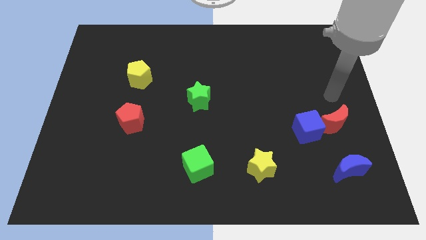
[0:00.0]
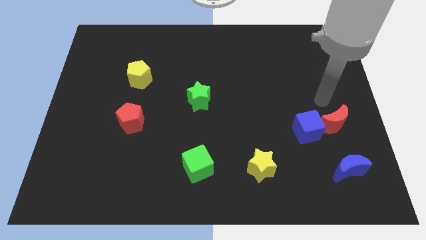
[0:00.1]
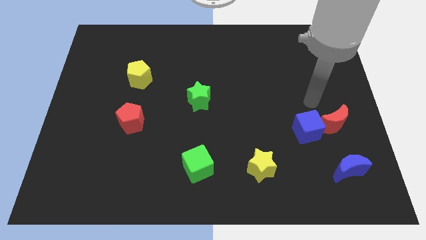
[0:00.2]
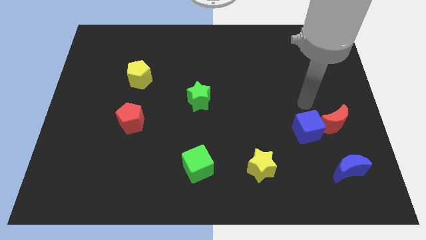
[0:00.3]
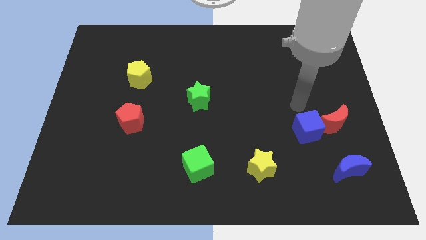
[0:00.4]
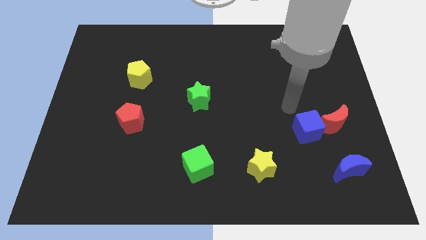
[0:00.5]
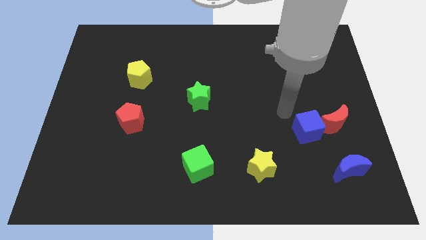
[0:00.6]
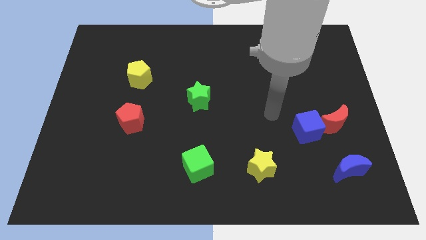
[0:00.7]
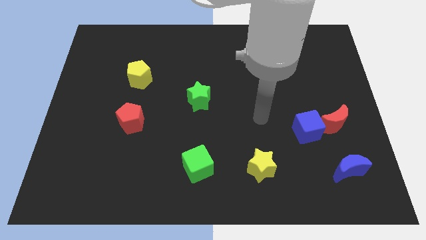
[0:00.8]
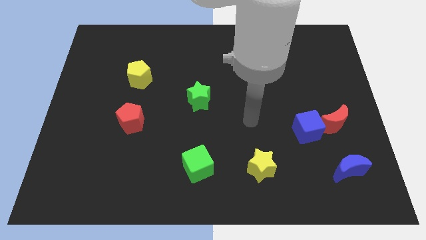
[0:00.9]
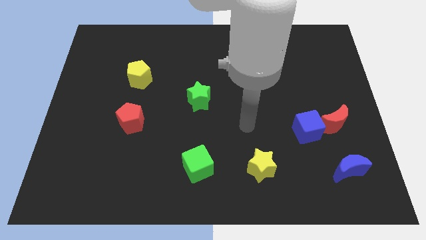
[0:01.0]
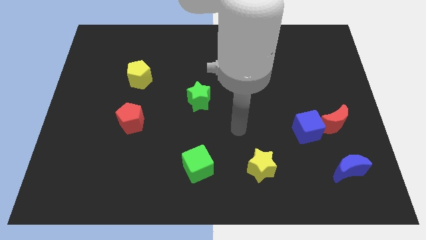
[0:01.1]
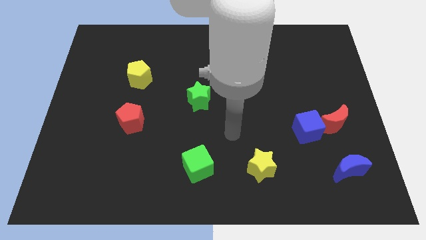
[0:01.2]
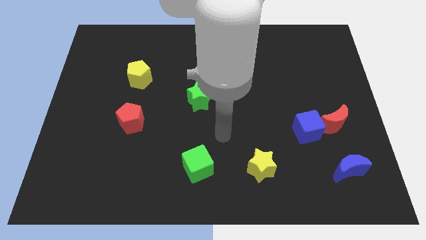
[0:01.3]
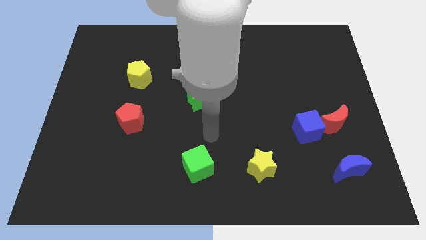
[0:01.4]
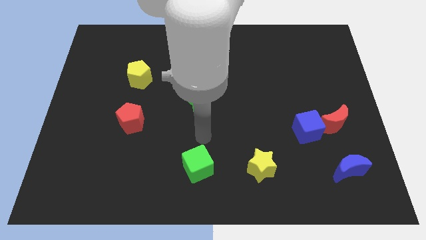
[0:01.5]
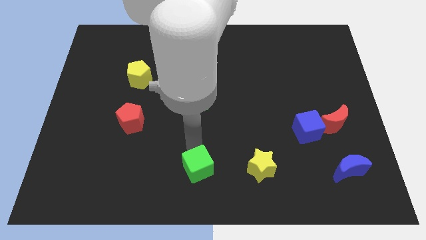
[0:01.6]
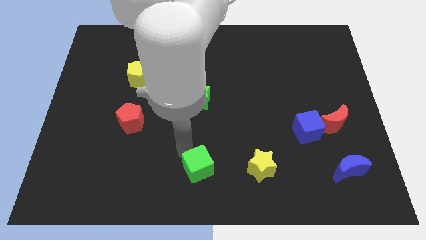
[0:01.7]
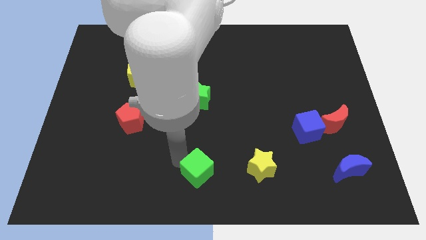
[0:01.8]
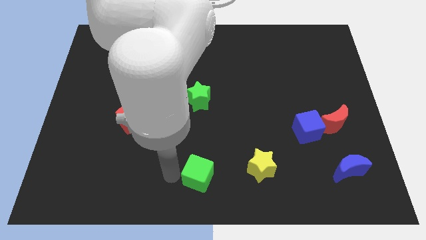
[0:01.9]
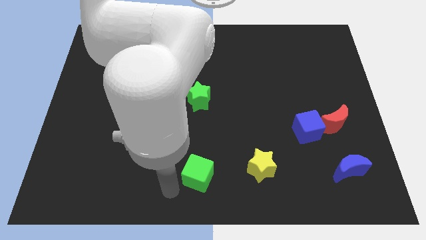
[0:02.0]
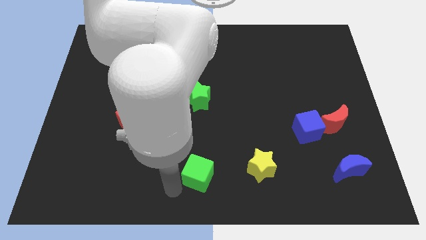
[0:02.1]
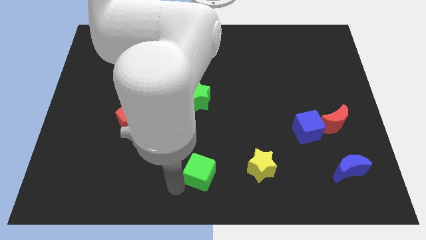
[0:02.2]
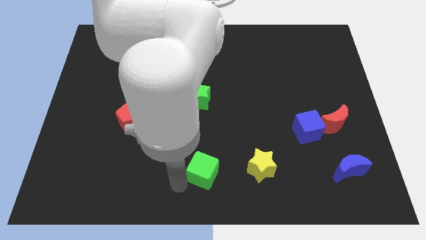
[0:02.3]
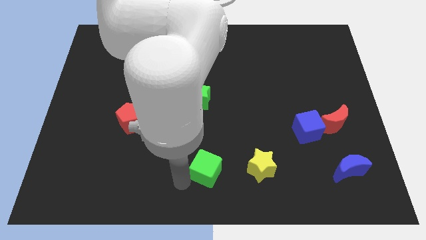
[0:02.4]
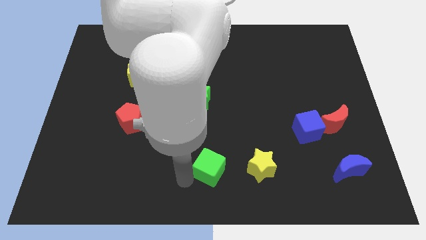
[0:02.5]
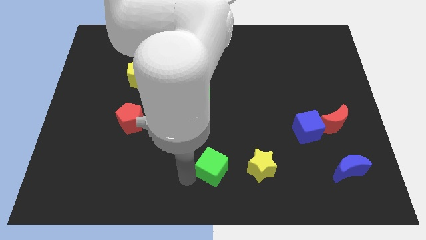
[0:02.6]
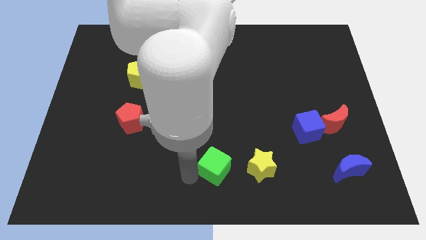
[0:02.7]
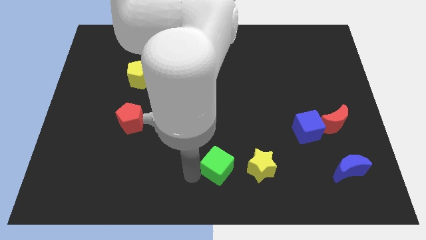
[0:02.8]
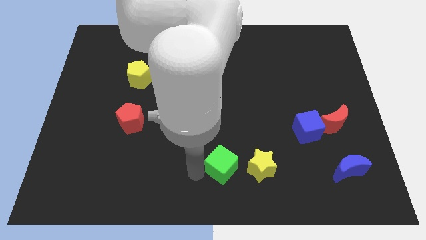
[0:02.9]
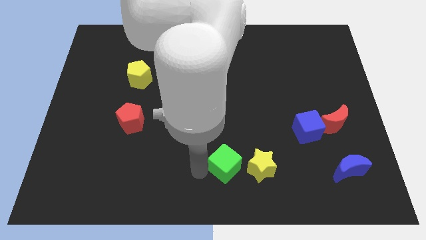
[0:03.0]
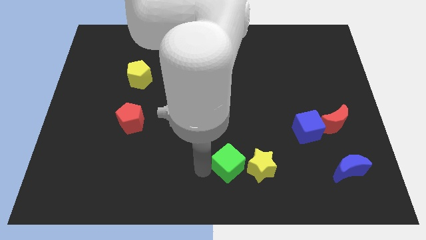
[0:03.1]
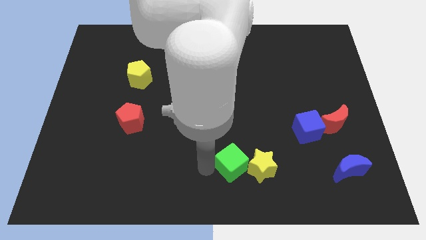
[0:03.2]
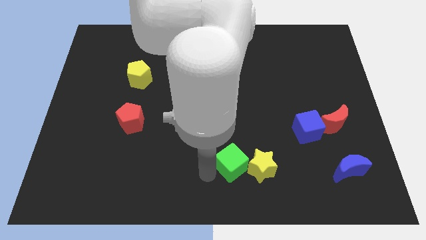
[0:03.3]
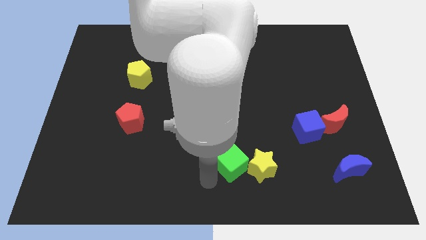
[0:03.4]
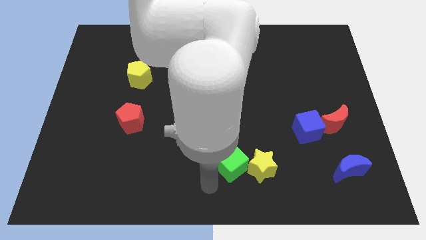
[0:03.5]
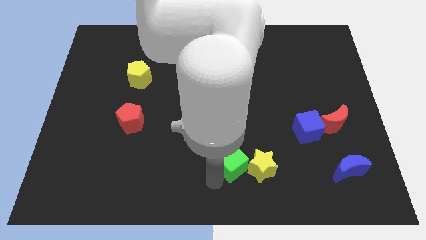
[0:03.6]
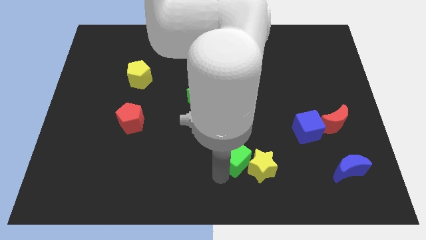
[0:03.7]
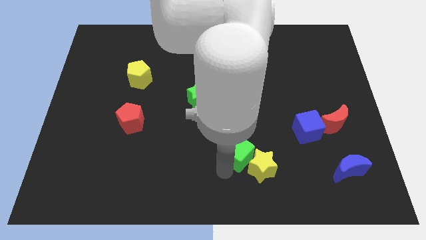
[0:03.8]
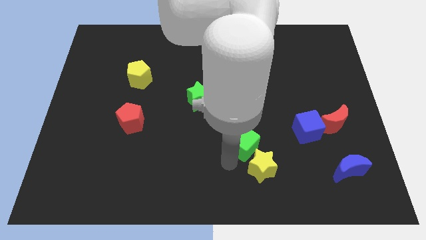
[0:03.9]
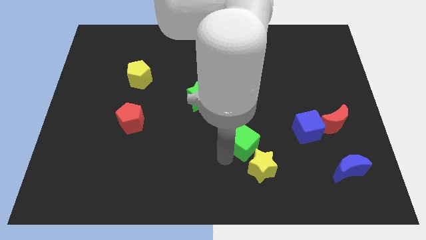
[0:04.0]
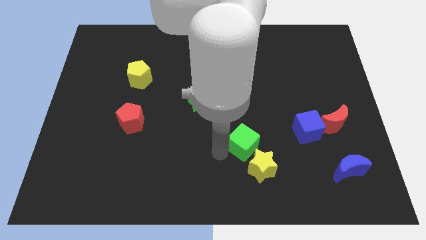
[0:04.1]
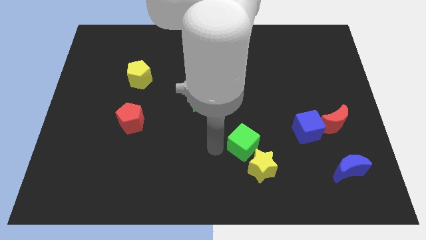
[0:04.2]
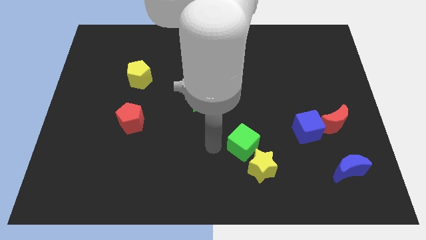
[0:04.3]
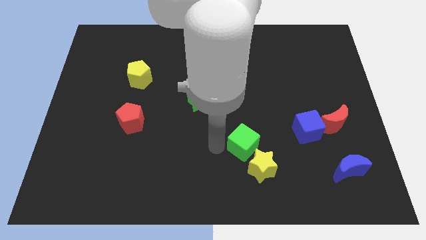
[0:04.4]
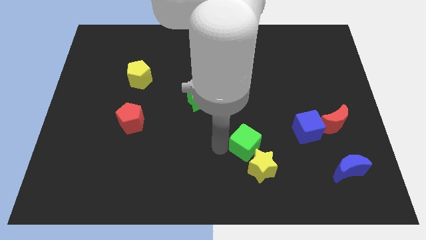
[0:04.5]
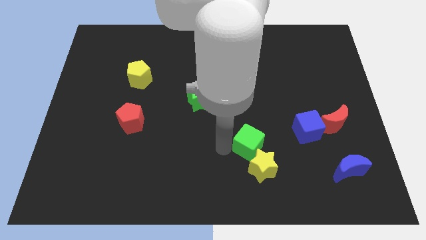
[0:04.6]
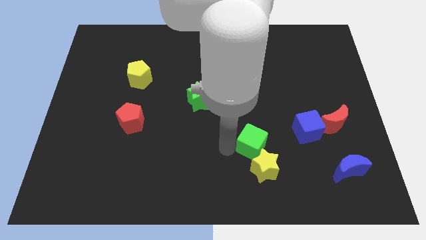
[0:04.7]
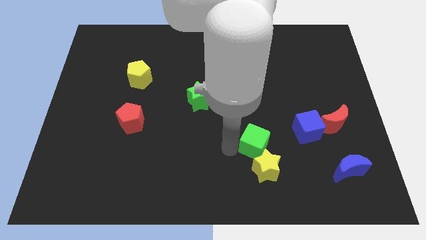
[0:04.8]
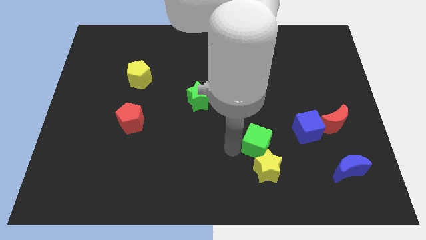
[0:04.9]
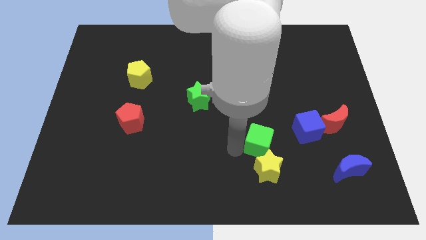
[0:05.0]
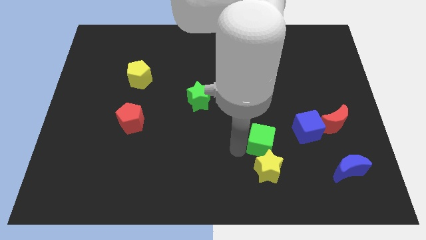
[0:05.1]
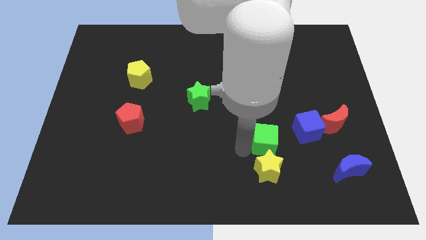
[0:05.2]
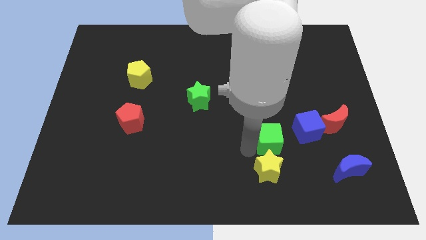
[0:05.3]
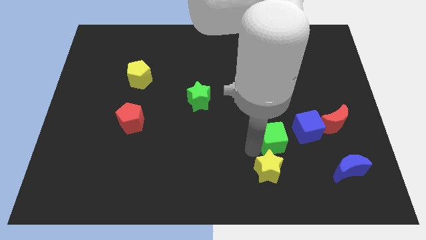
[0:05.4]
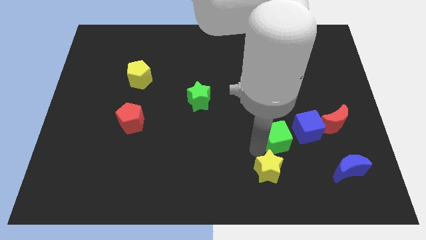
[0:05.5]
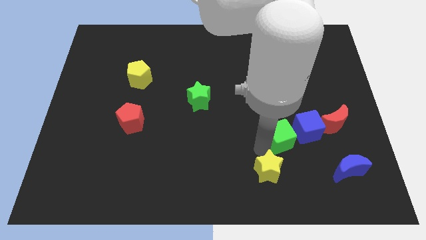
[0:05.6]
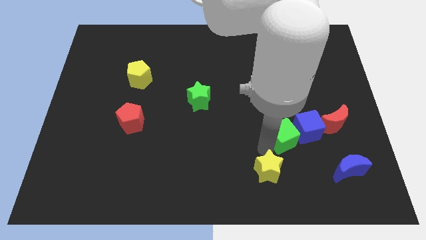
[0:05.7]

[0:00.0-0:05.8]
push the green cube close to the blue cube

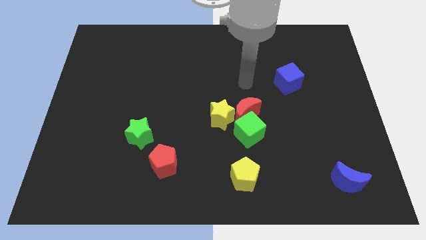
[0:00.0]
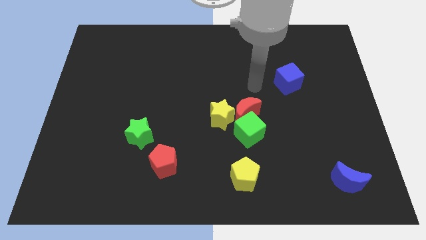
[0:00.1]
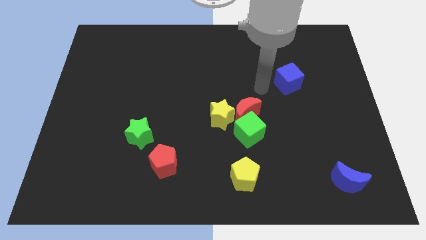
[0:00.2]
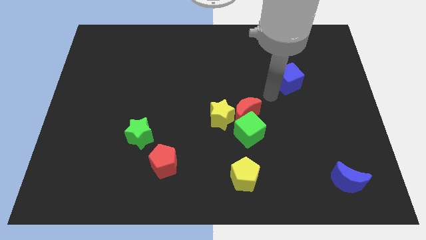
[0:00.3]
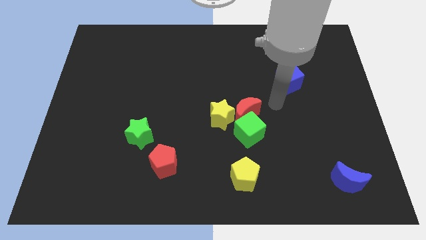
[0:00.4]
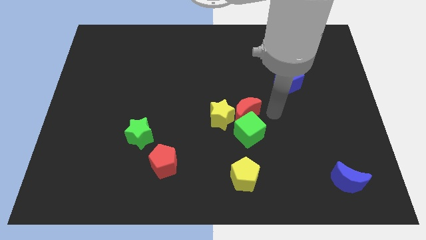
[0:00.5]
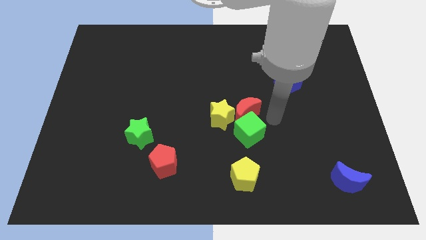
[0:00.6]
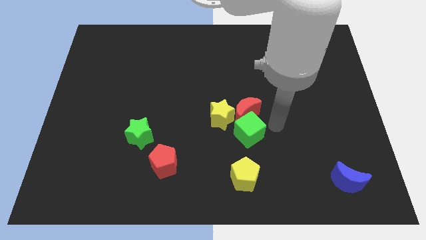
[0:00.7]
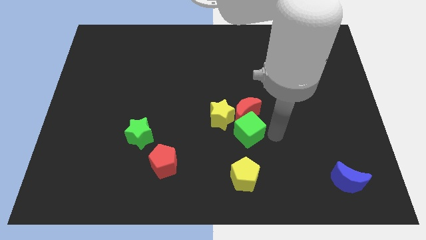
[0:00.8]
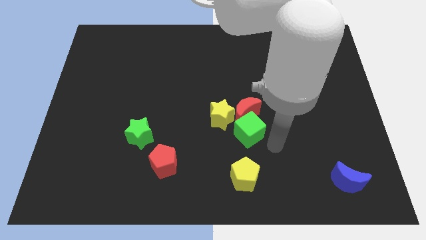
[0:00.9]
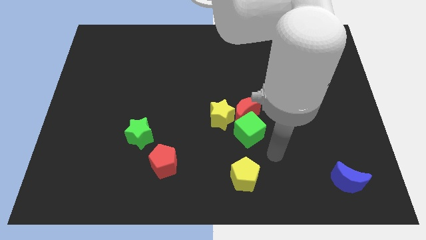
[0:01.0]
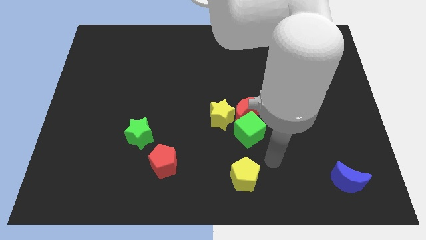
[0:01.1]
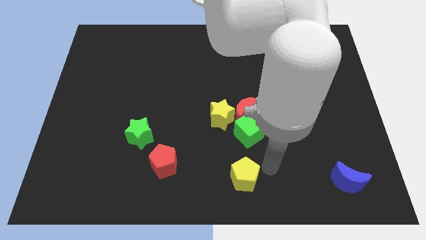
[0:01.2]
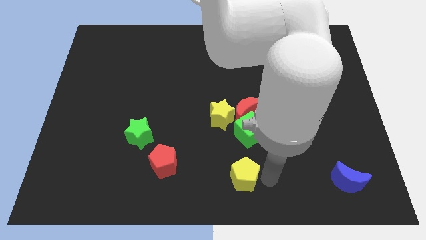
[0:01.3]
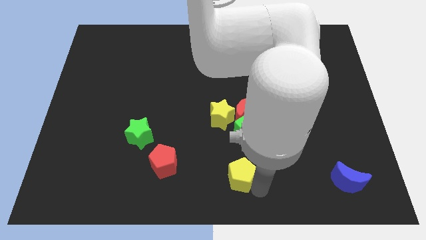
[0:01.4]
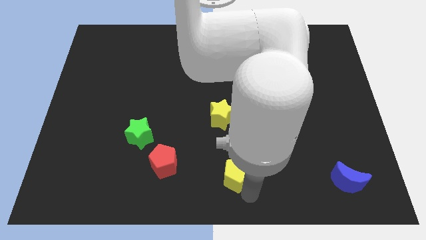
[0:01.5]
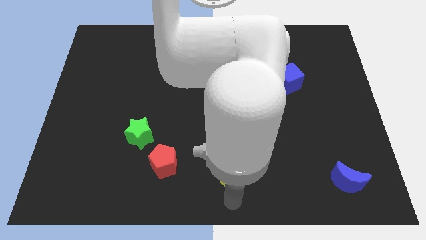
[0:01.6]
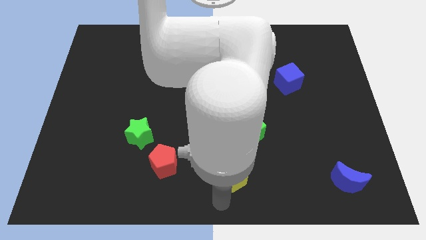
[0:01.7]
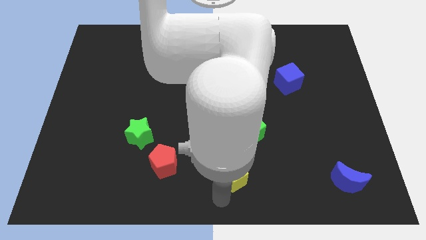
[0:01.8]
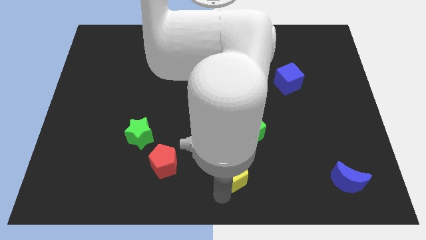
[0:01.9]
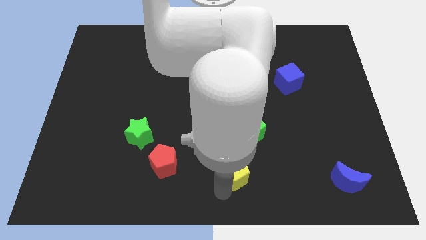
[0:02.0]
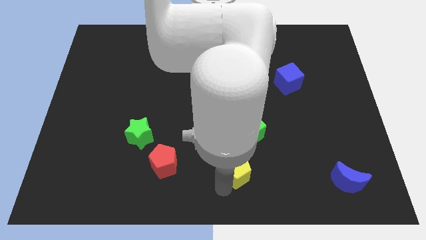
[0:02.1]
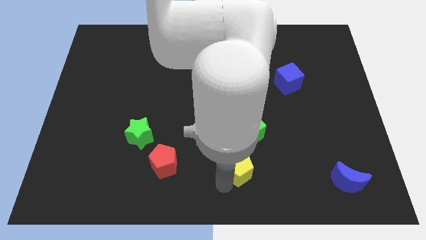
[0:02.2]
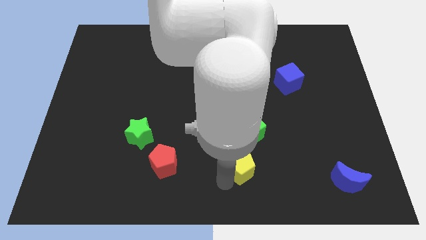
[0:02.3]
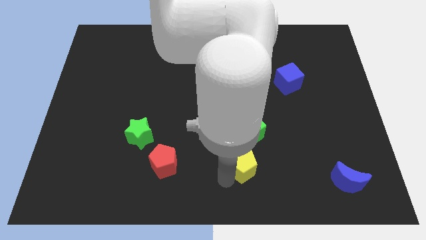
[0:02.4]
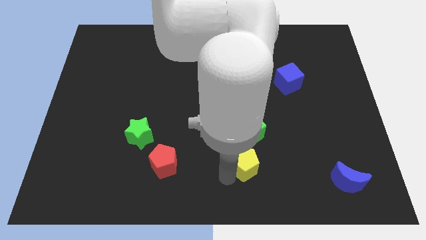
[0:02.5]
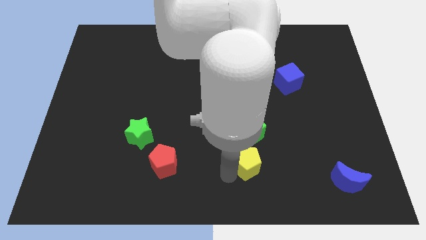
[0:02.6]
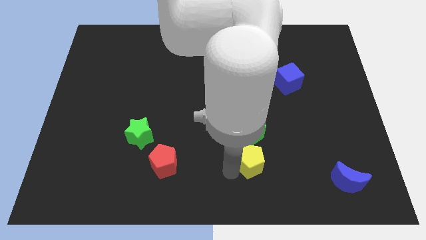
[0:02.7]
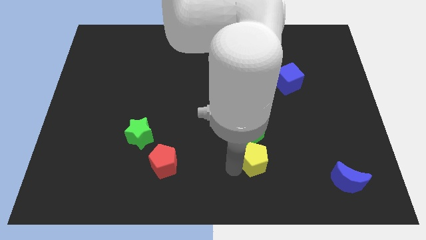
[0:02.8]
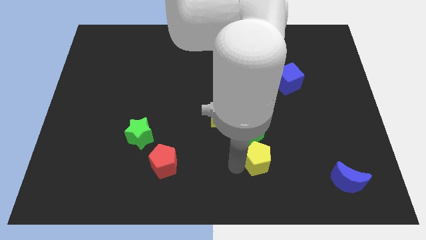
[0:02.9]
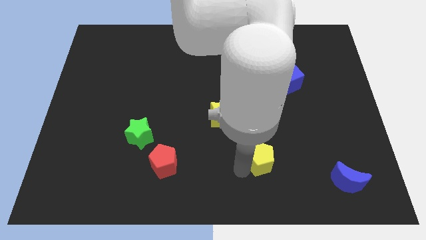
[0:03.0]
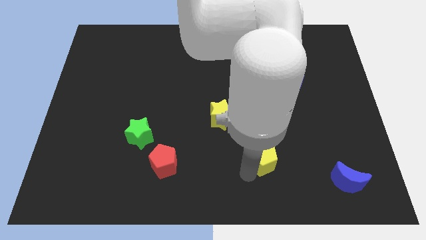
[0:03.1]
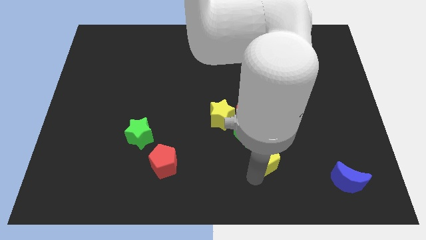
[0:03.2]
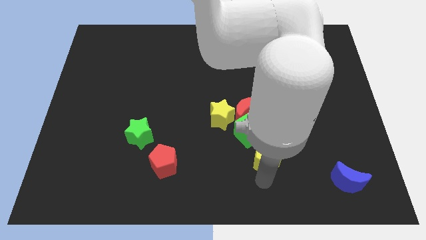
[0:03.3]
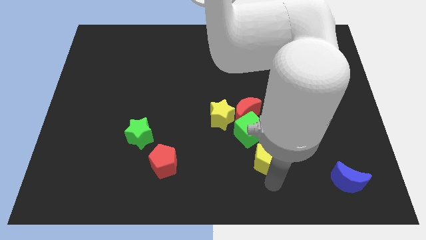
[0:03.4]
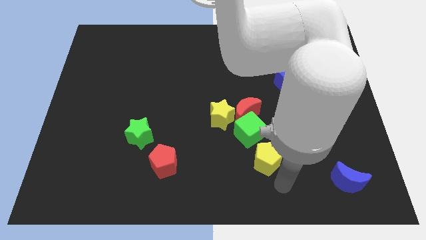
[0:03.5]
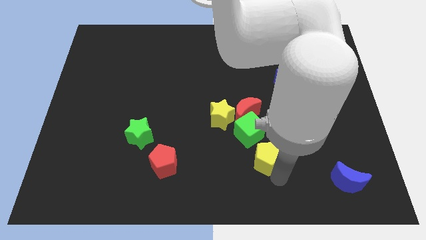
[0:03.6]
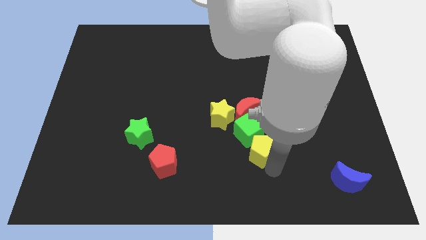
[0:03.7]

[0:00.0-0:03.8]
move the yellow pentagon next to the green cube
